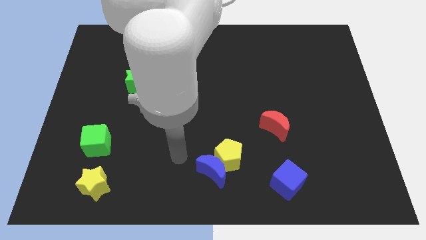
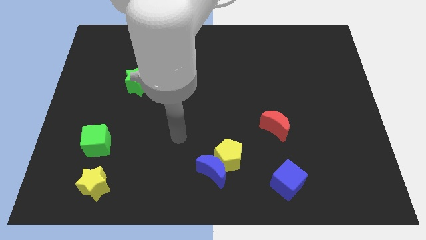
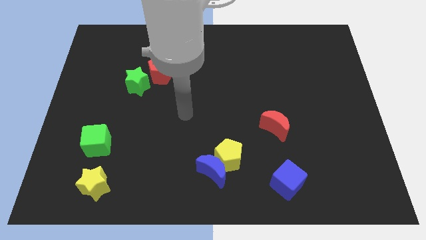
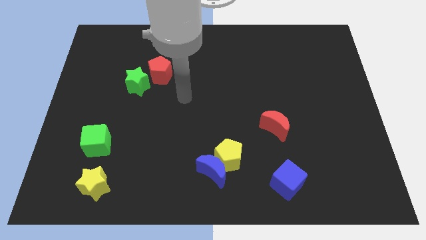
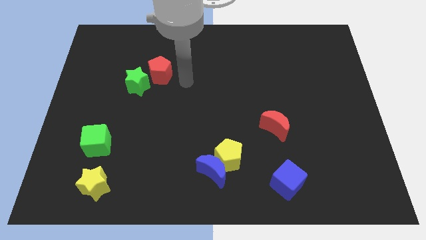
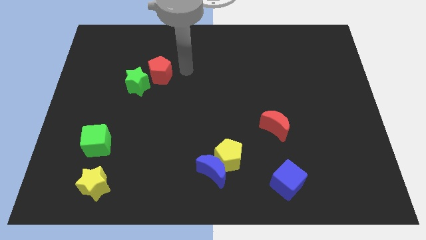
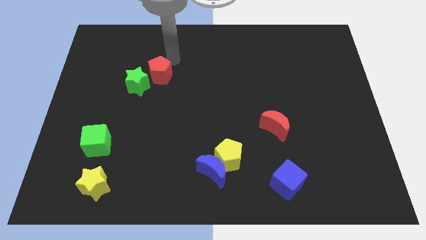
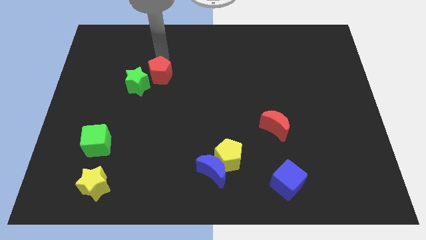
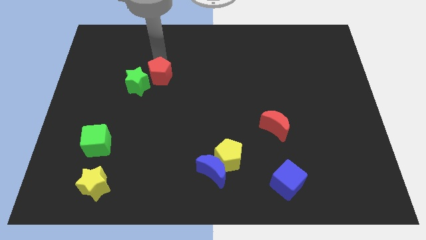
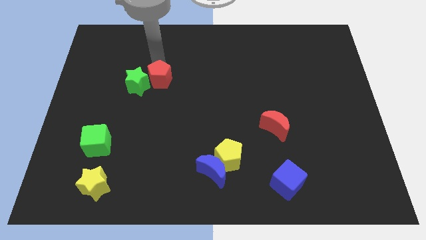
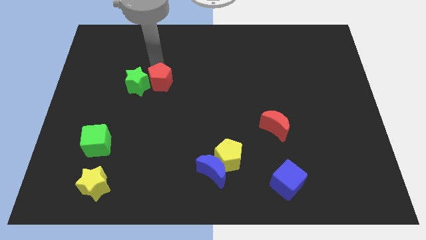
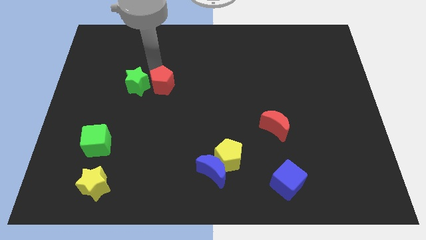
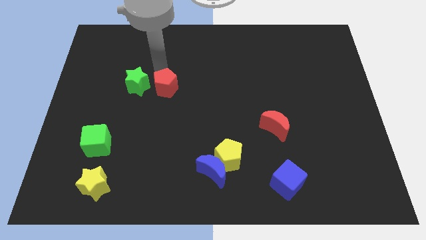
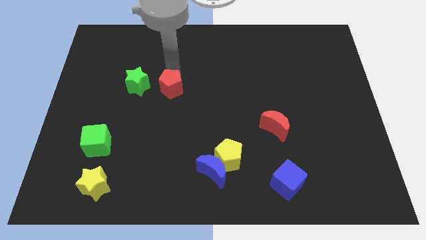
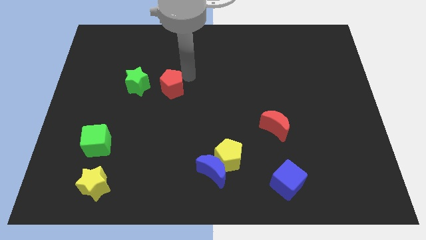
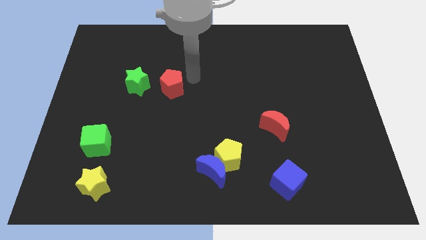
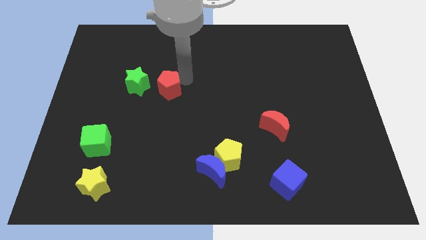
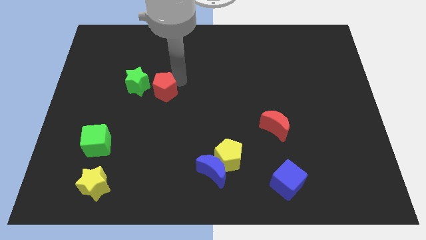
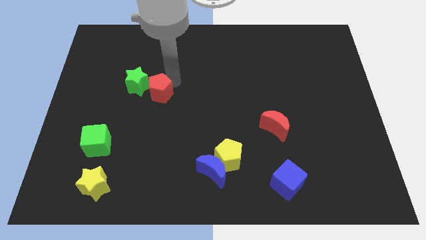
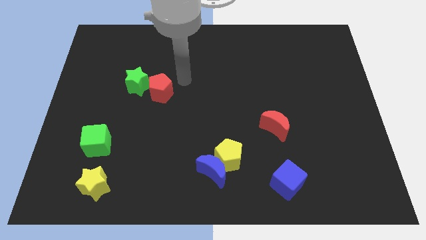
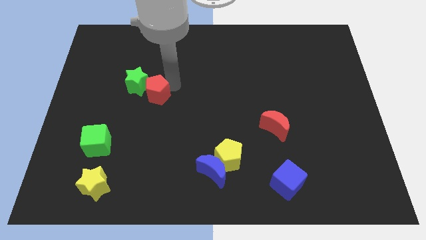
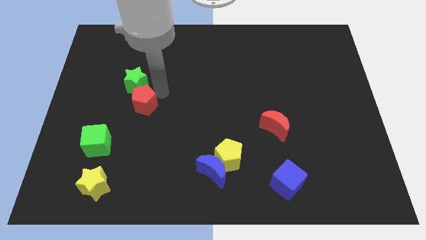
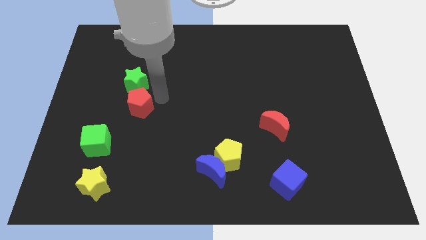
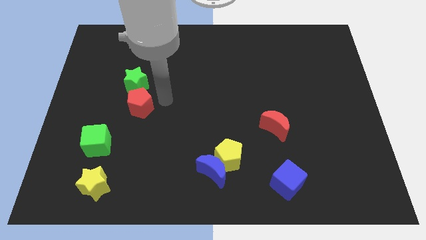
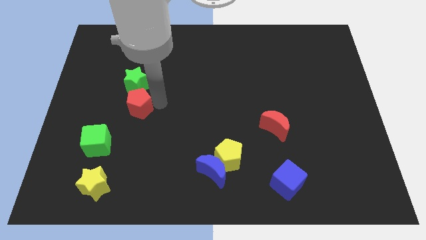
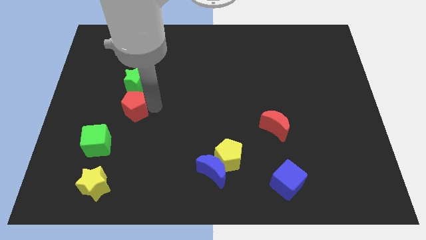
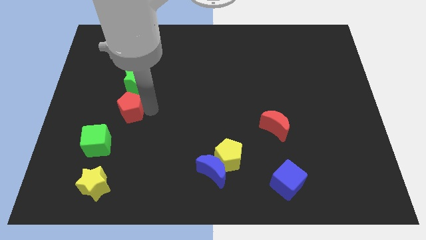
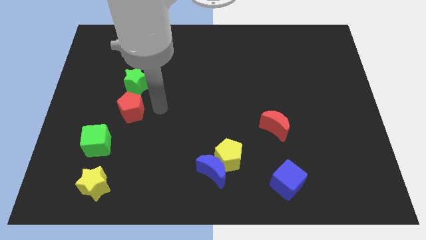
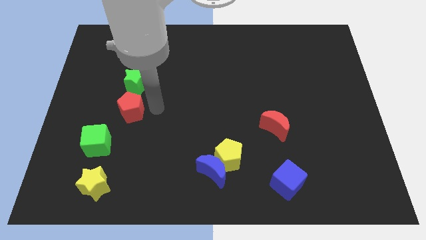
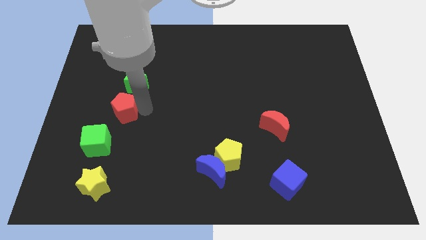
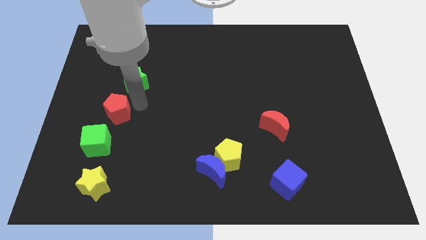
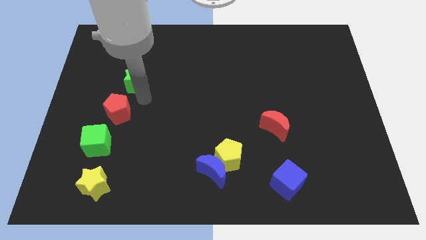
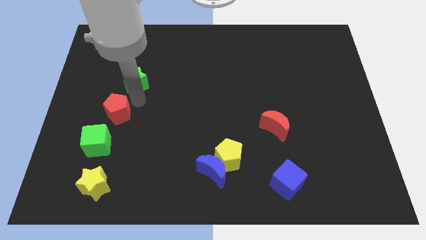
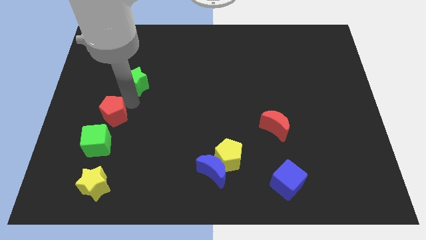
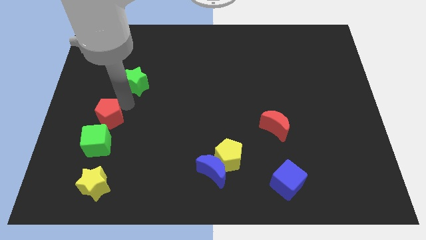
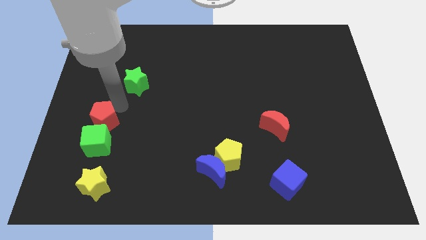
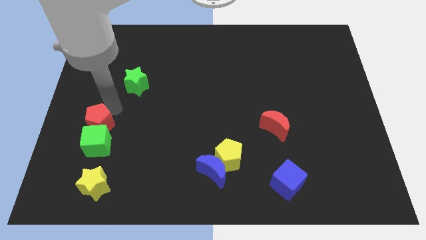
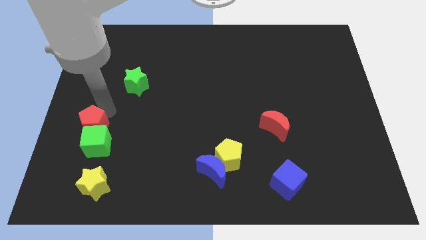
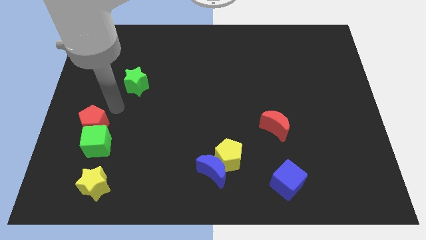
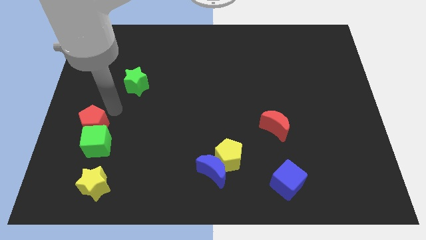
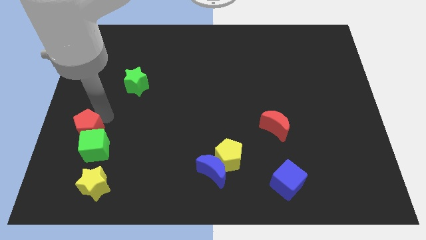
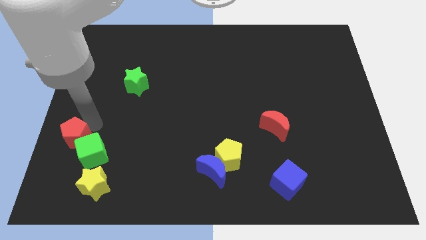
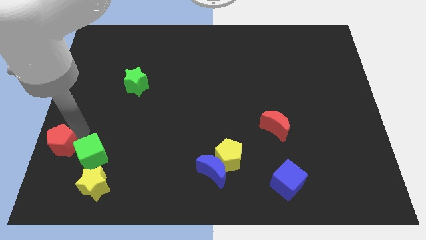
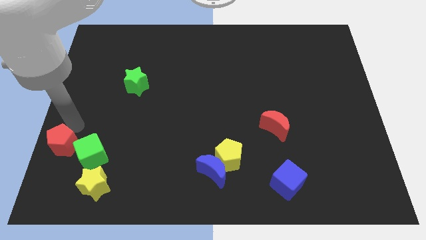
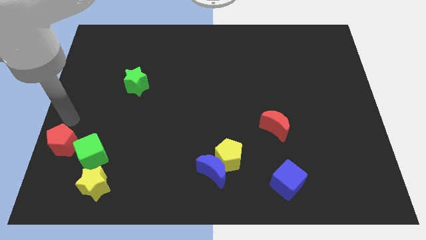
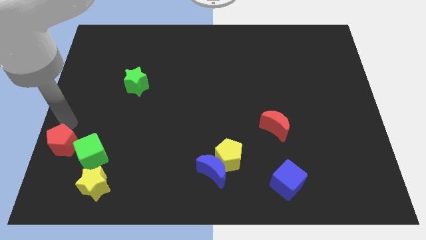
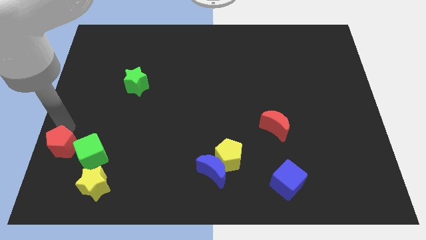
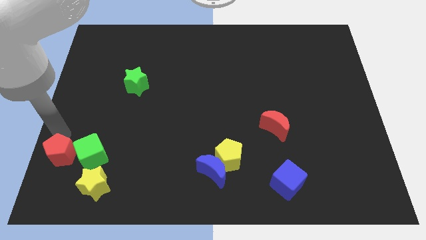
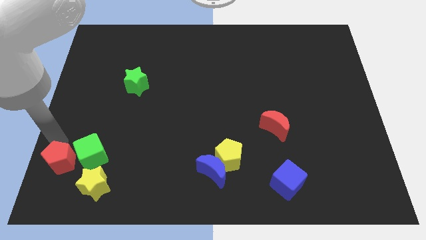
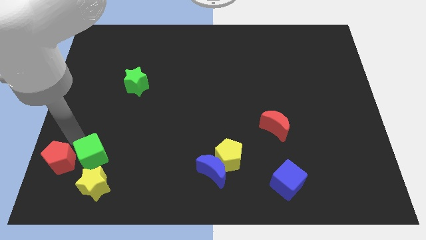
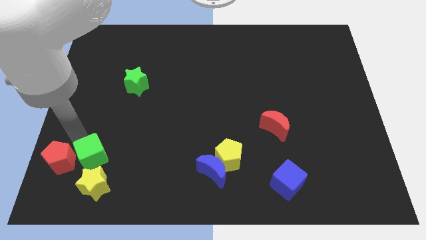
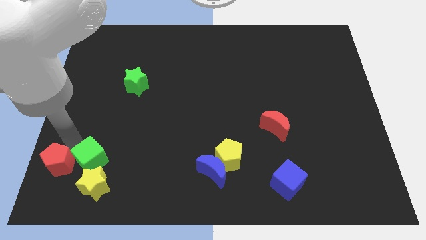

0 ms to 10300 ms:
put the red pentagon to the bottom left of the board

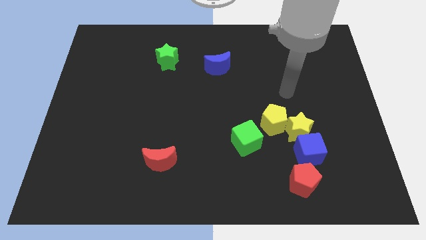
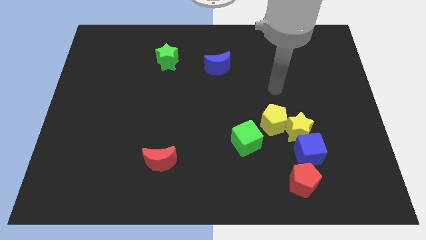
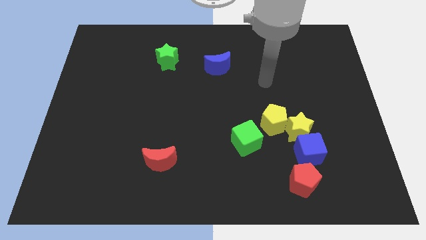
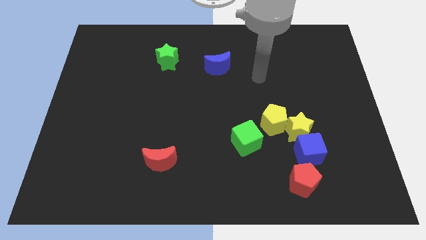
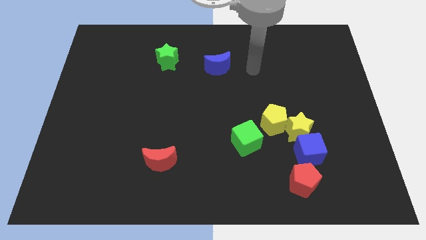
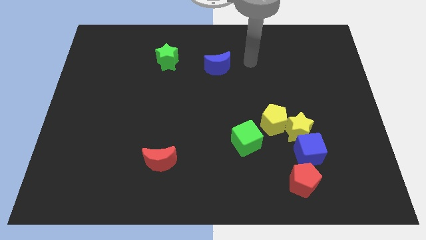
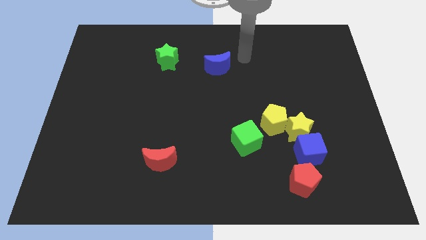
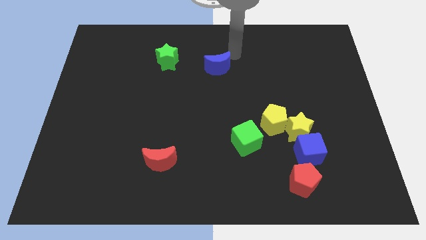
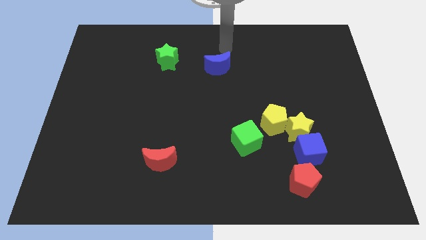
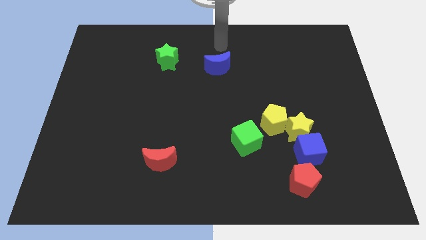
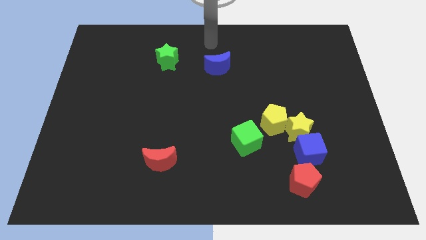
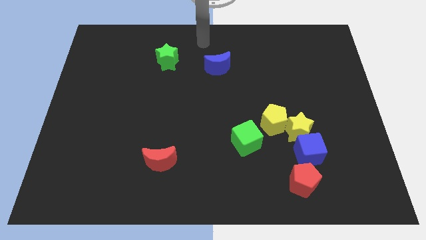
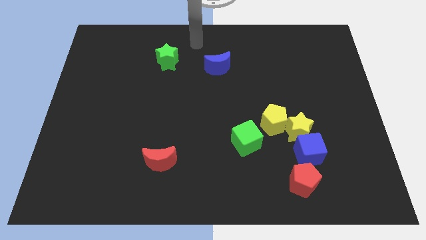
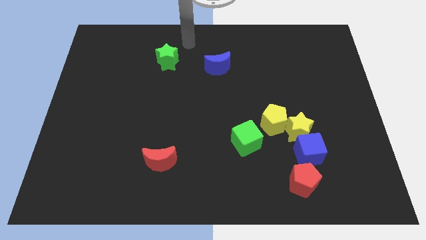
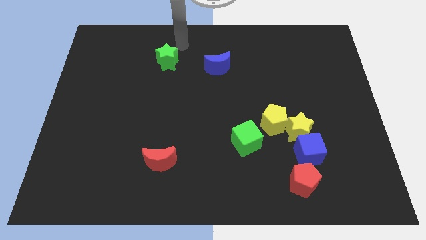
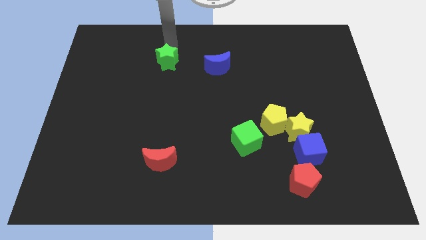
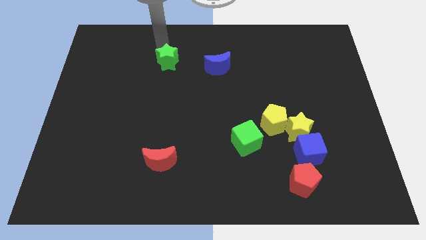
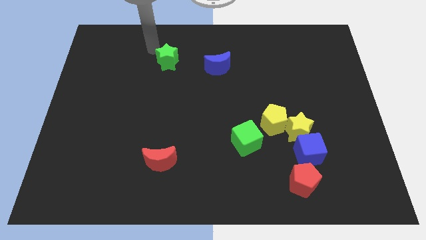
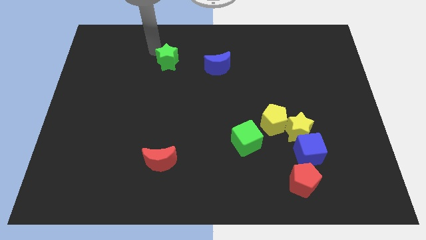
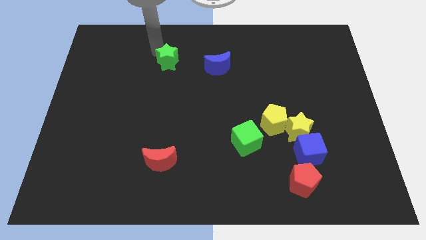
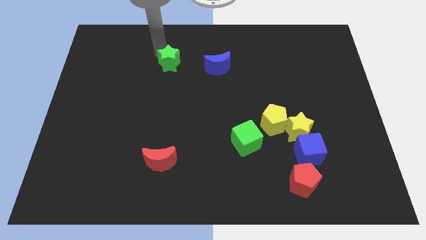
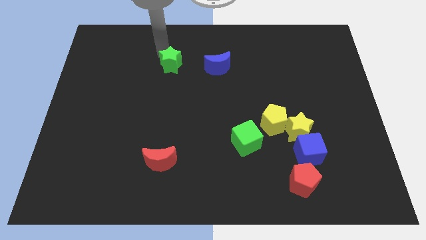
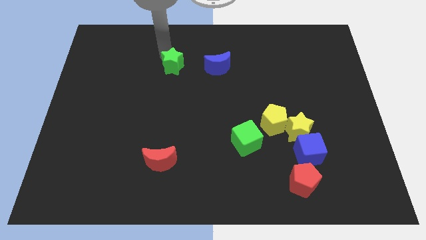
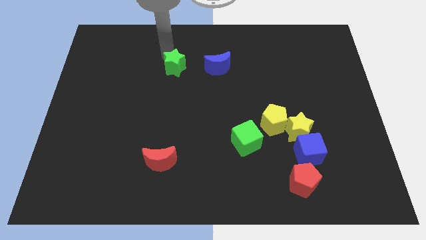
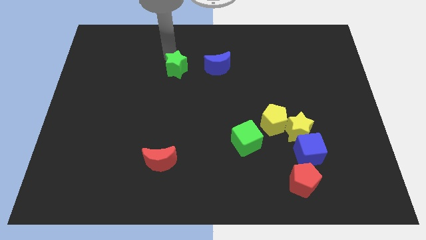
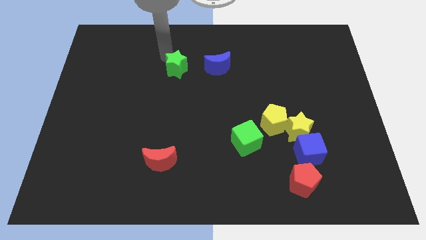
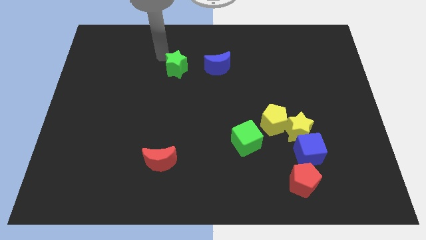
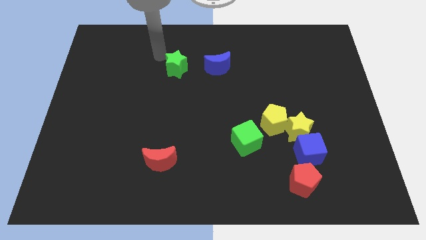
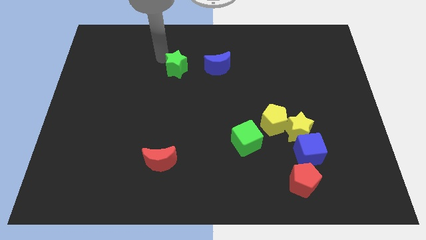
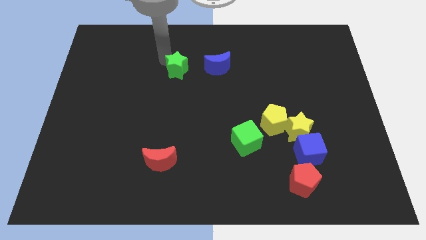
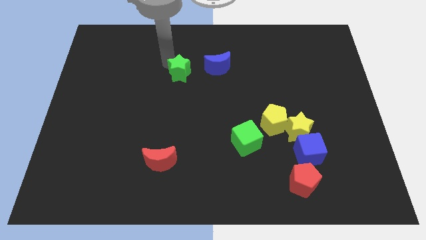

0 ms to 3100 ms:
move the green star to the middle of the board
